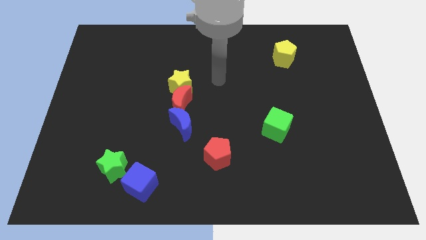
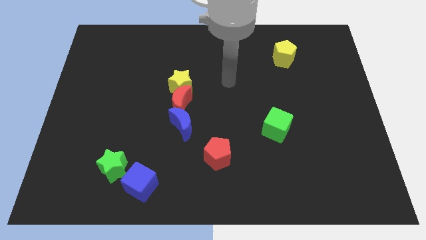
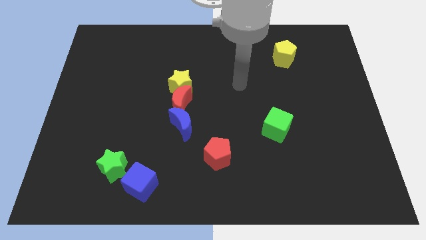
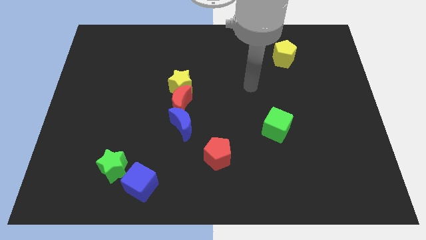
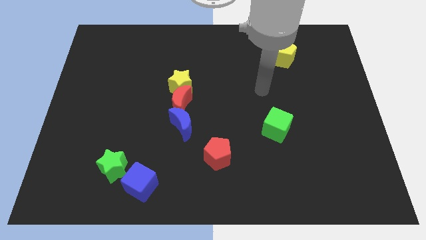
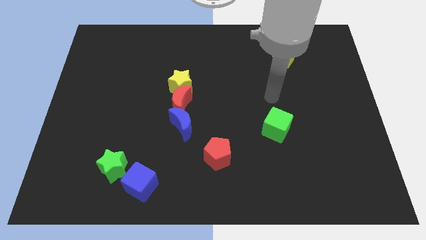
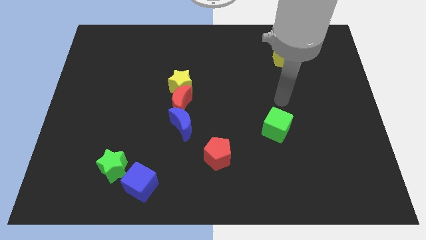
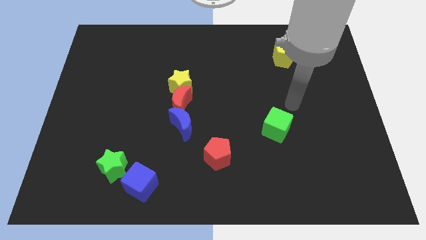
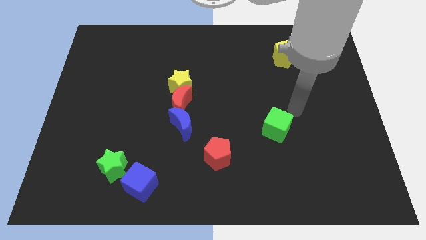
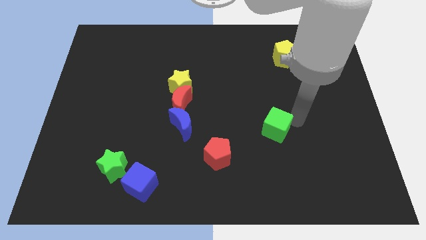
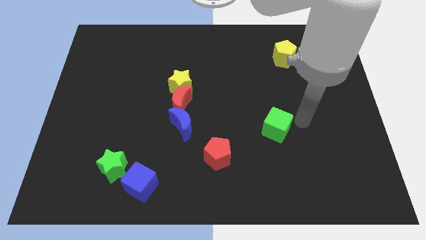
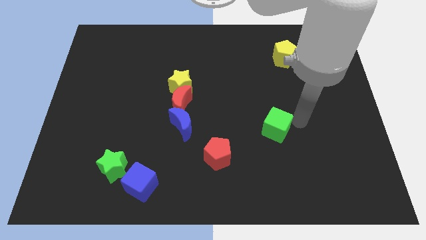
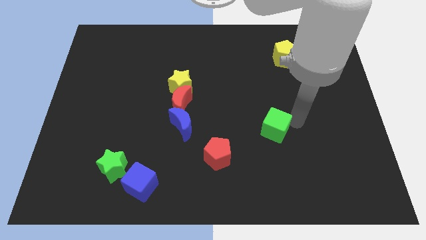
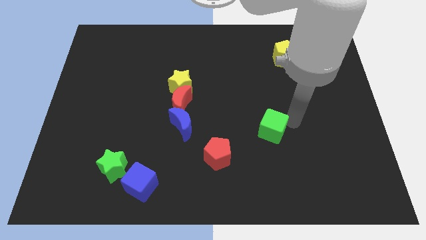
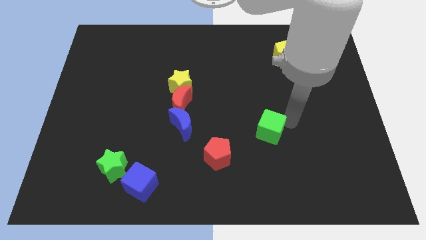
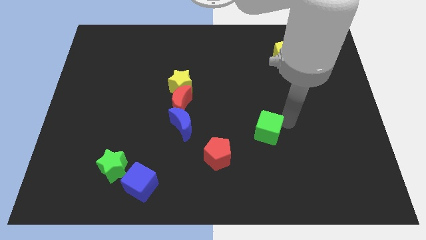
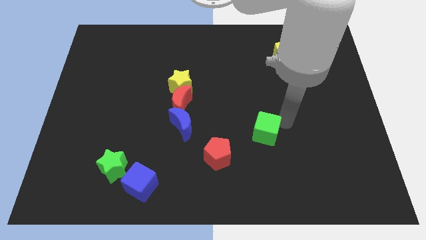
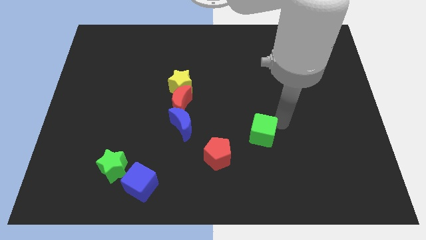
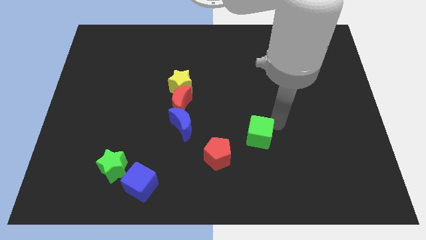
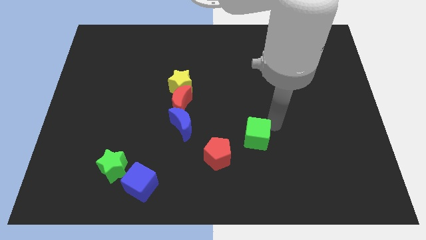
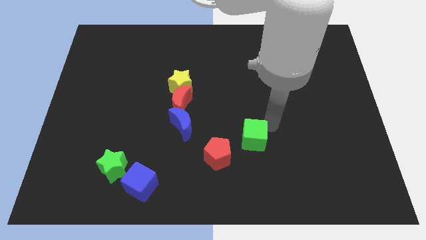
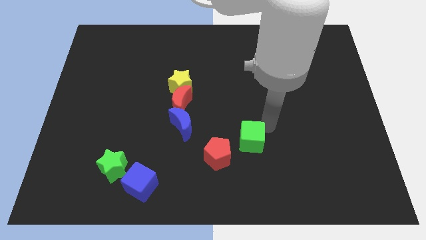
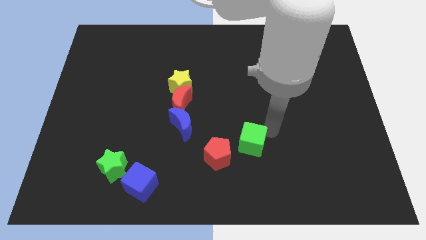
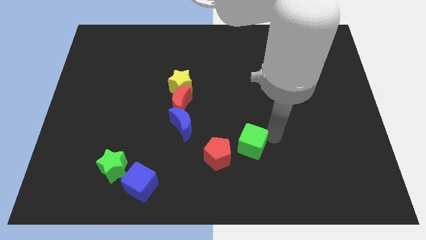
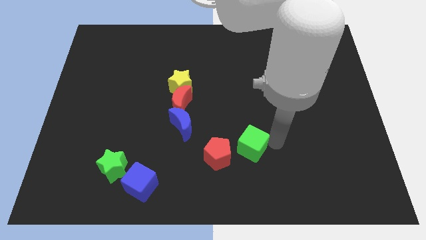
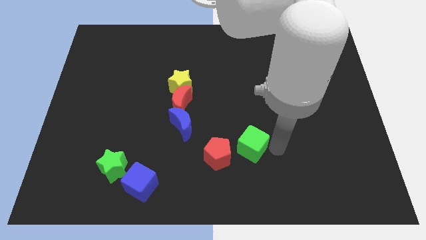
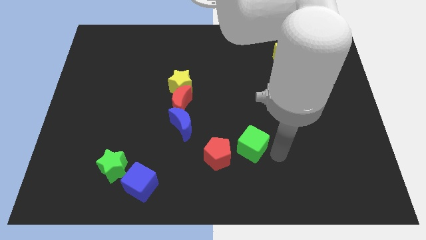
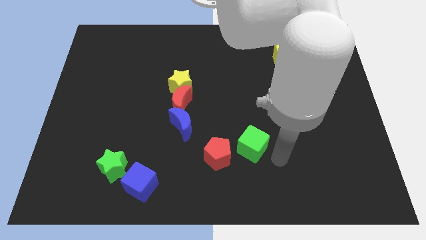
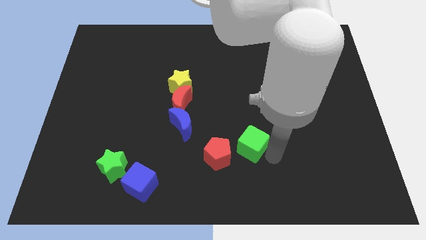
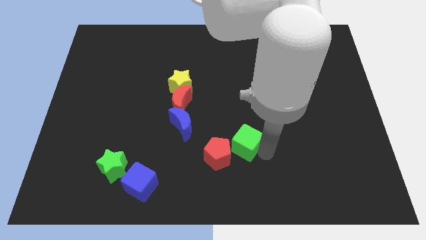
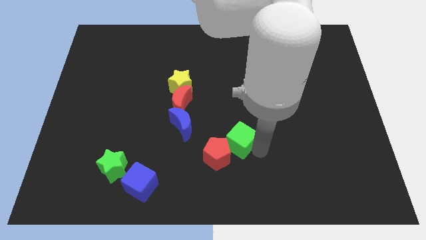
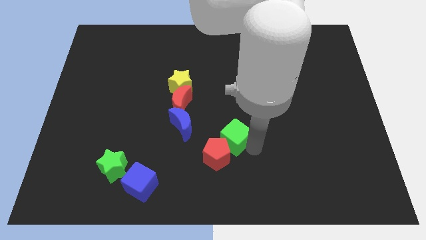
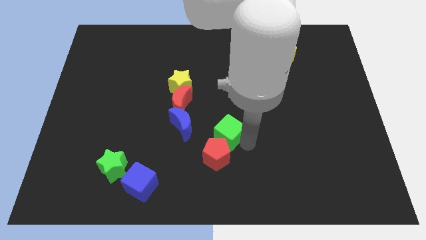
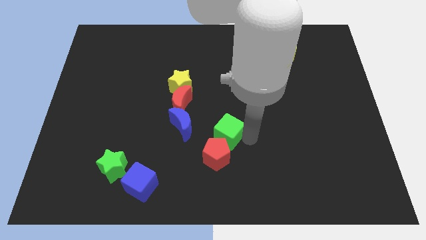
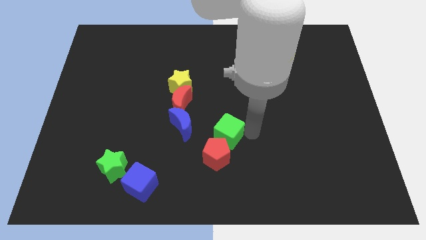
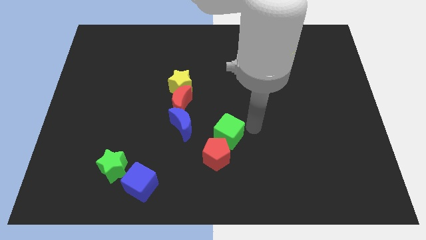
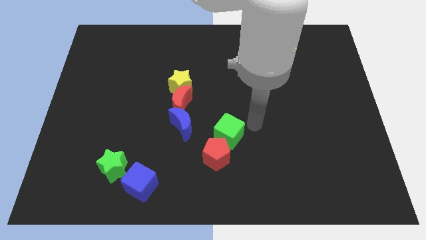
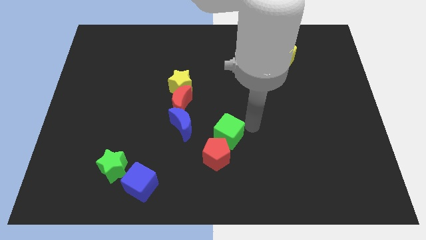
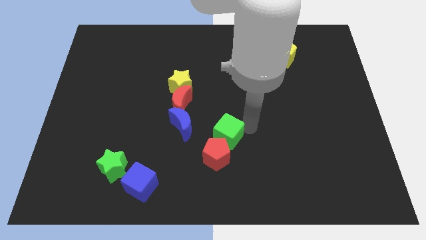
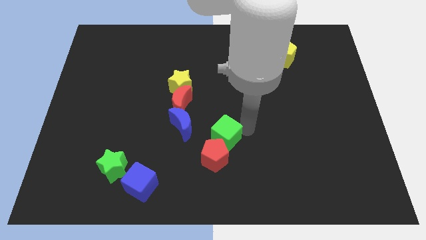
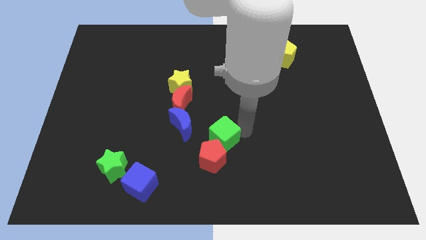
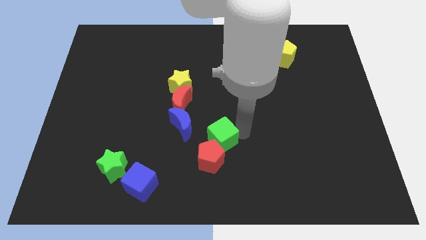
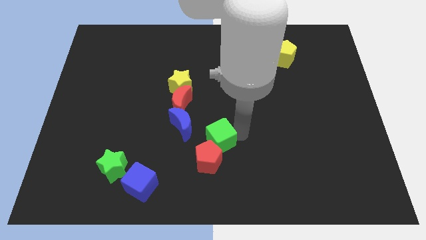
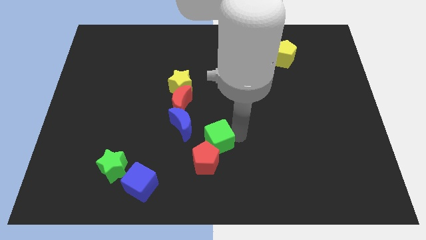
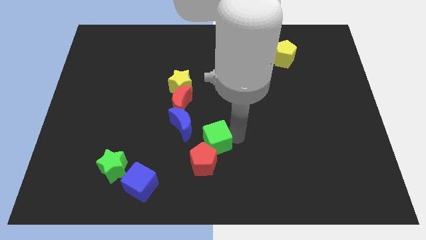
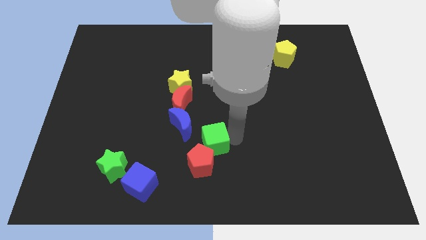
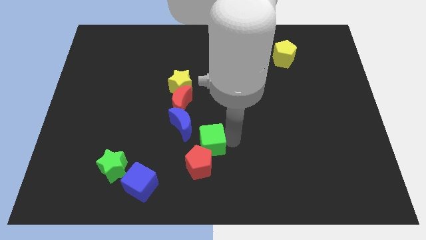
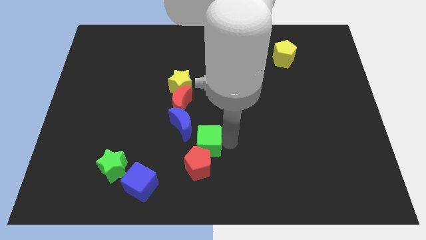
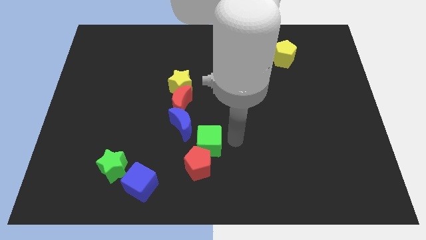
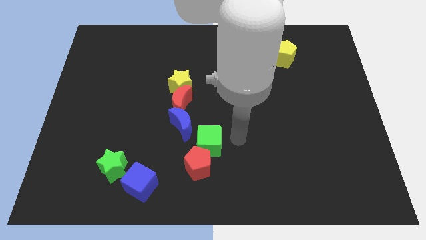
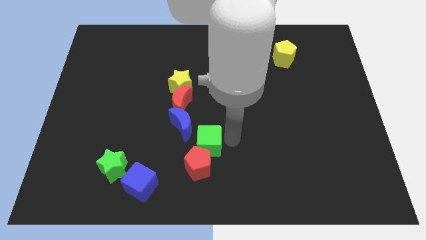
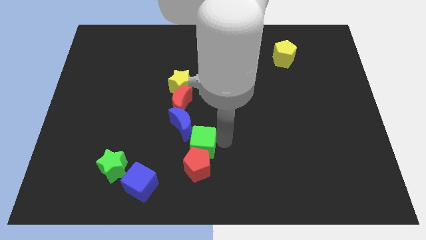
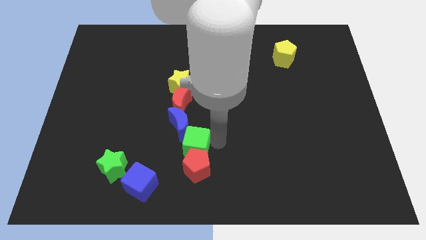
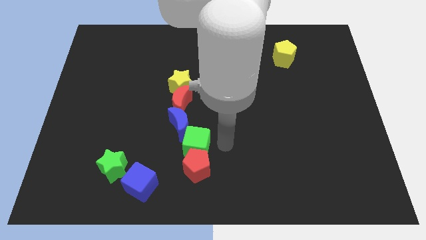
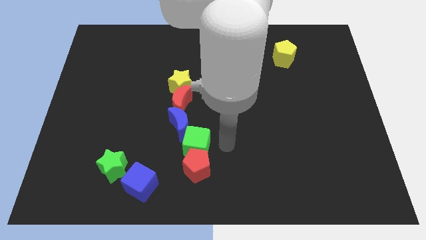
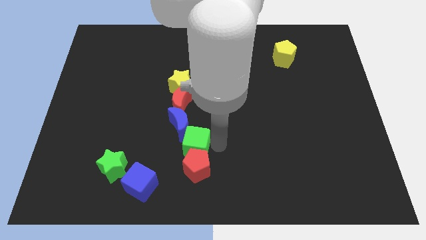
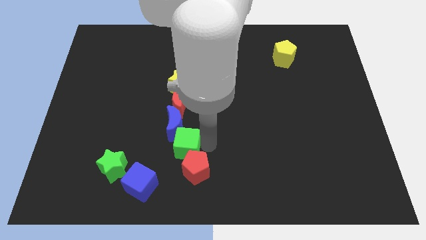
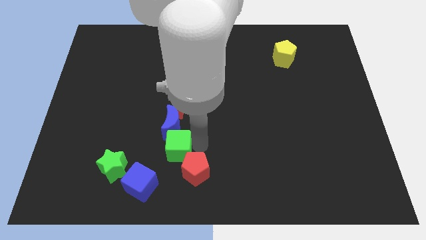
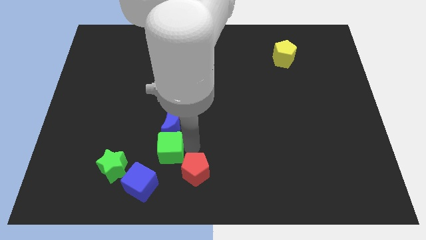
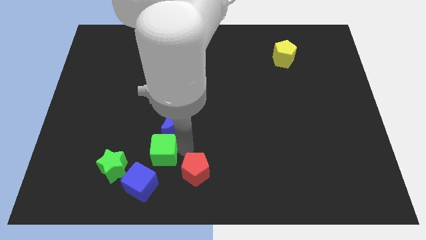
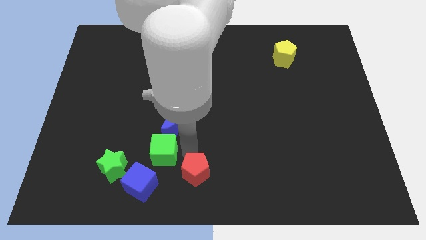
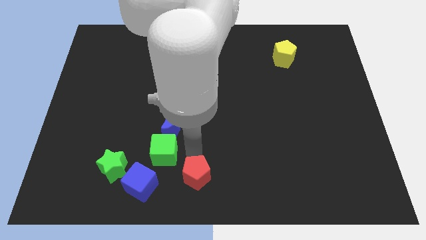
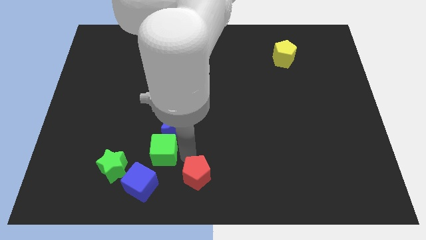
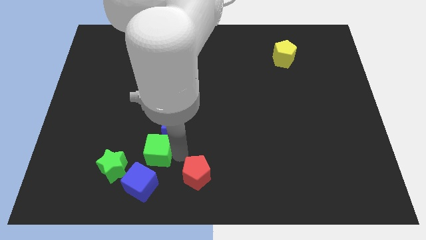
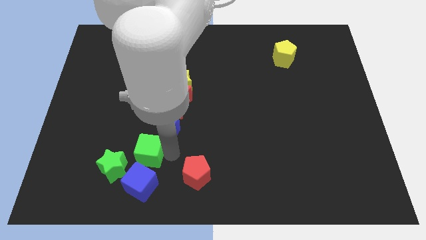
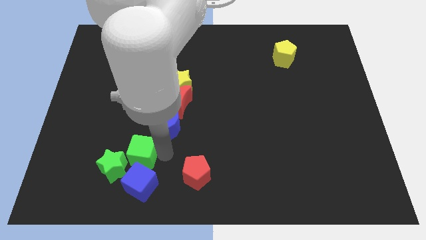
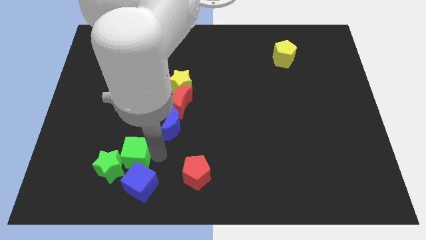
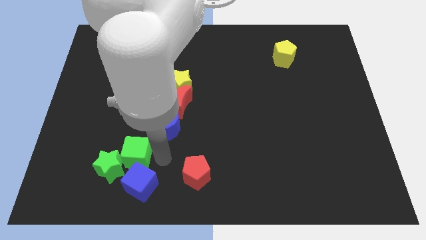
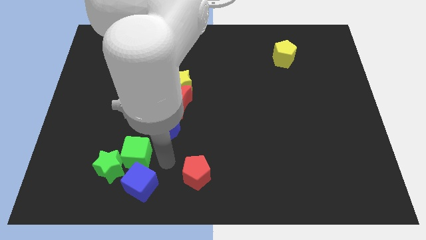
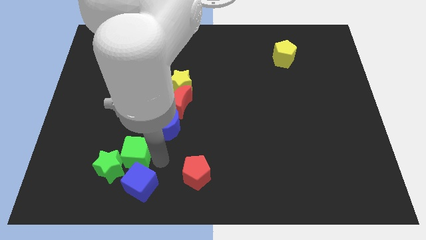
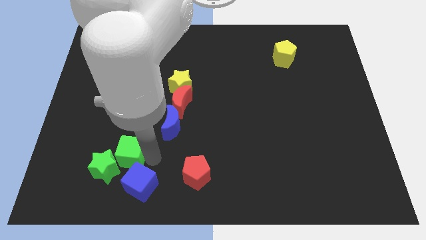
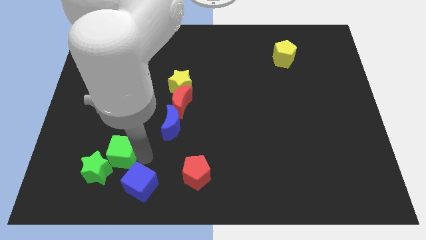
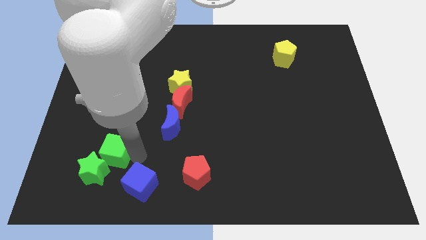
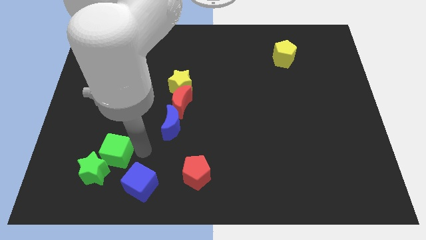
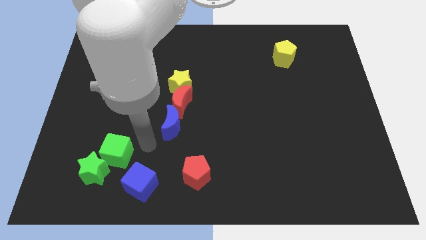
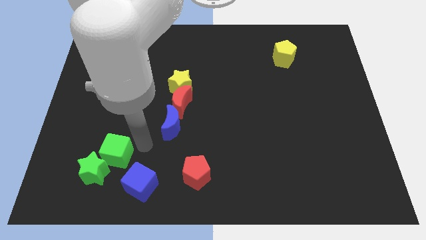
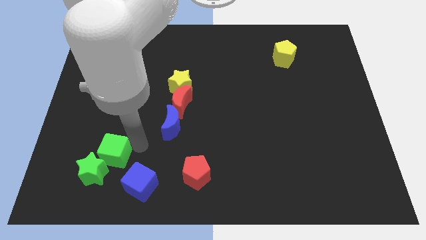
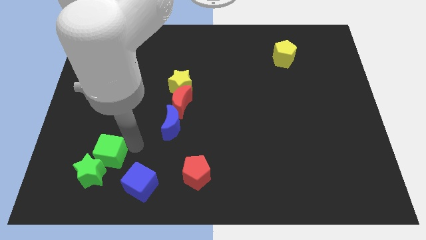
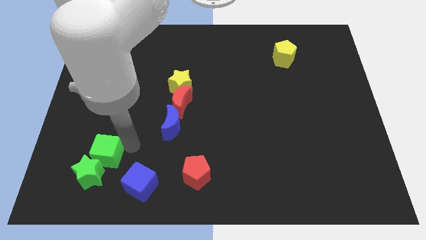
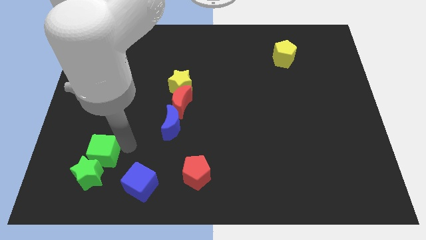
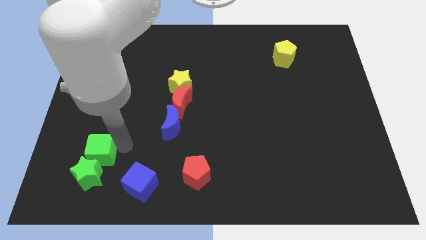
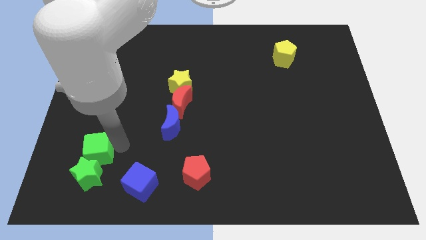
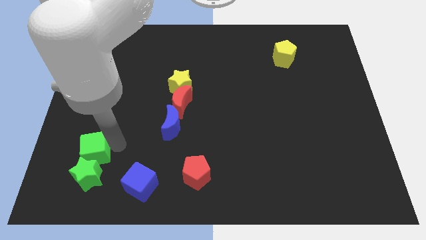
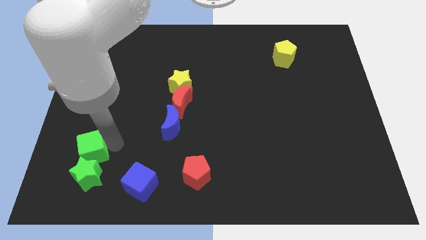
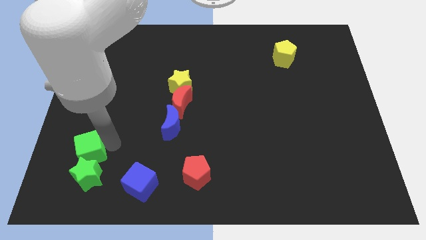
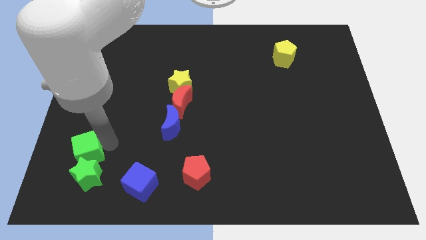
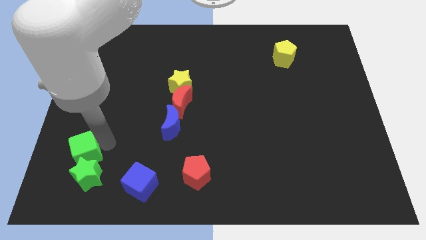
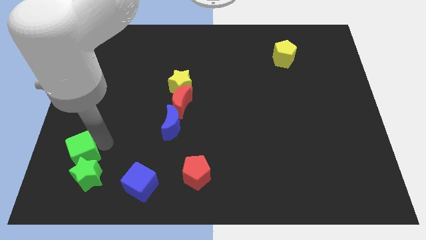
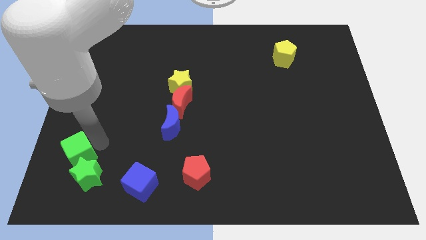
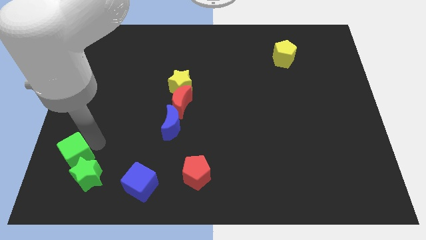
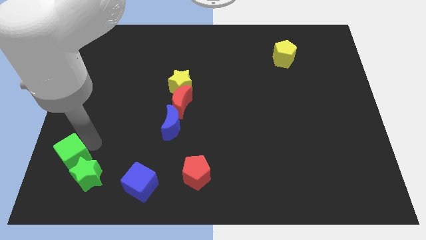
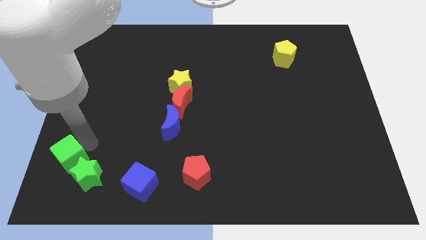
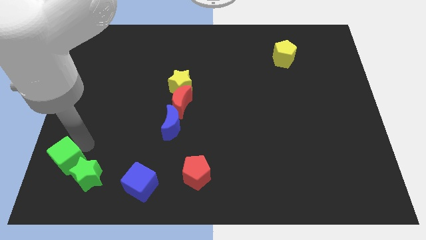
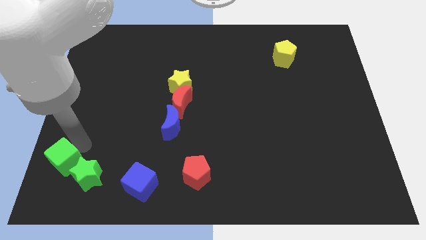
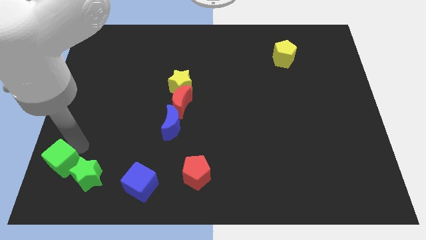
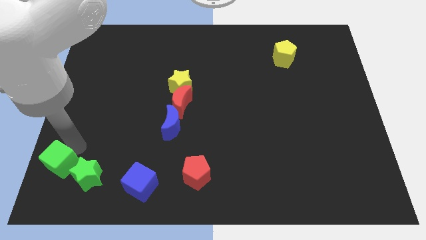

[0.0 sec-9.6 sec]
slide the green cube to the bottom left of the board
